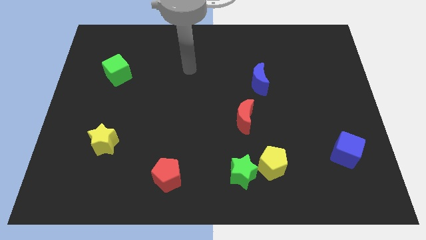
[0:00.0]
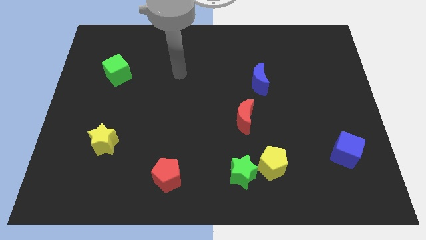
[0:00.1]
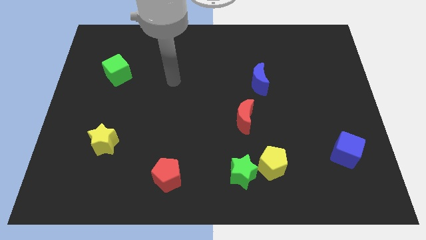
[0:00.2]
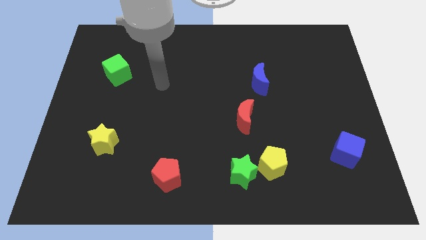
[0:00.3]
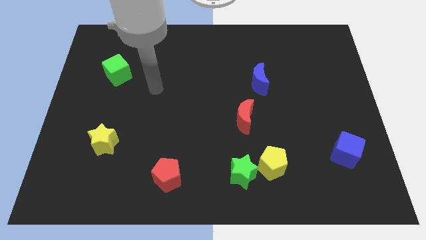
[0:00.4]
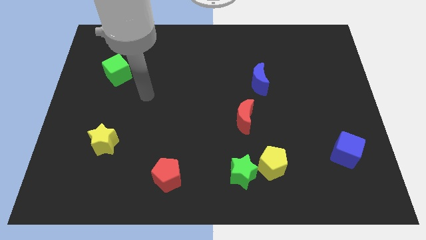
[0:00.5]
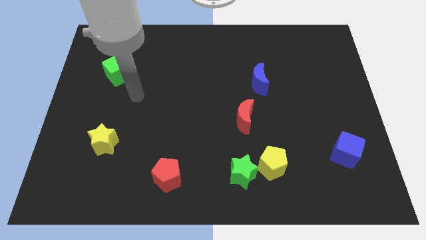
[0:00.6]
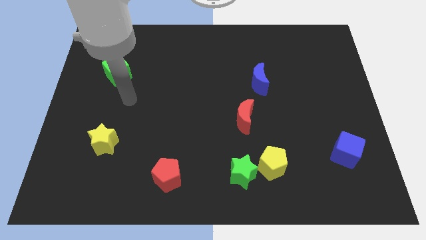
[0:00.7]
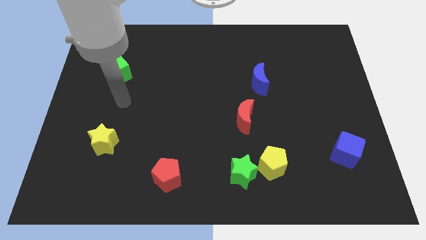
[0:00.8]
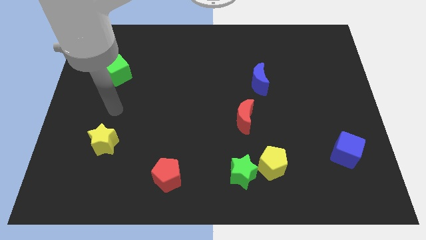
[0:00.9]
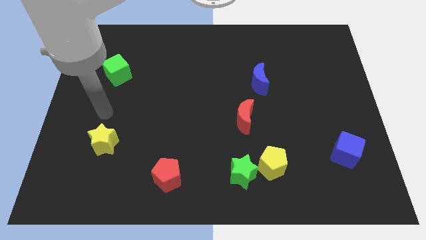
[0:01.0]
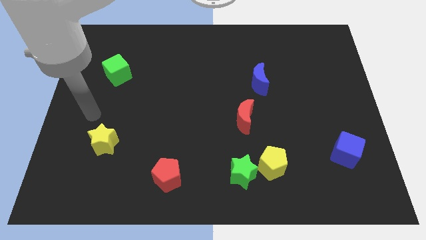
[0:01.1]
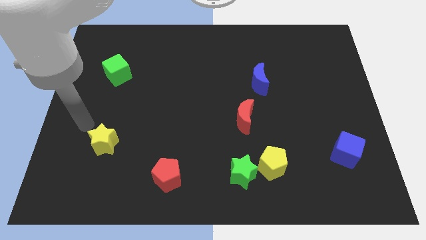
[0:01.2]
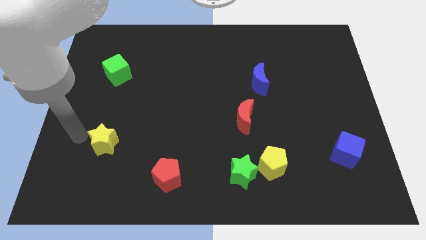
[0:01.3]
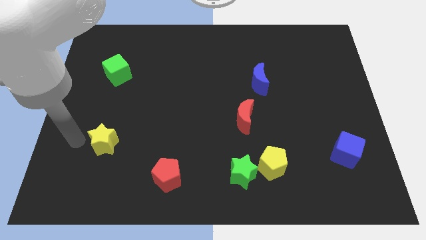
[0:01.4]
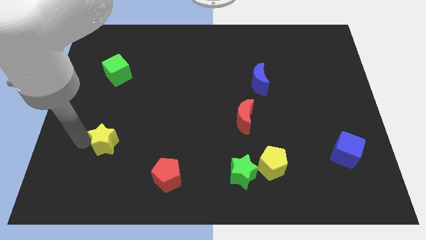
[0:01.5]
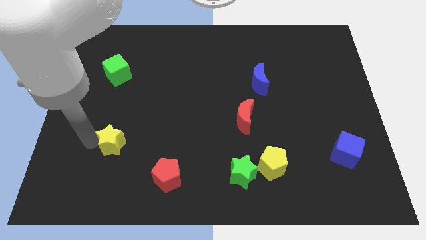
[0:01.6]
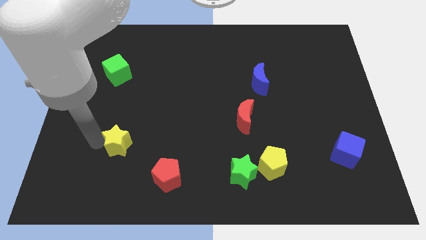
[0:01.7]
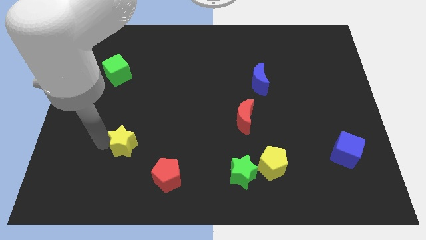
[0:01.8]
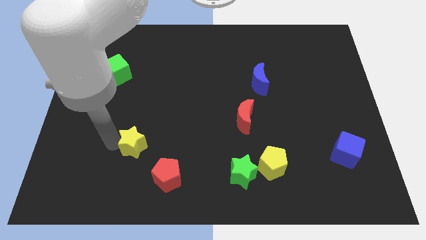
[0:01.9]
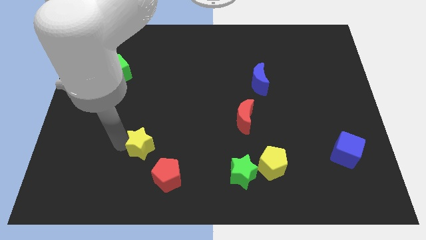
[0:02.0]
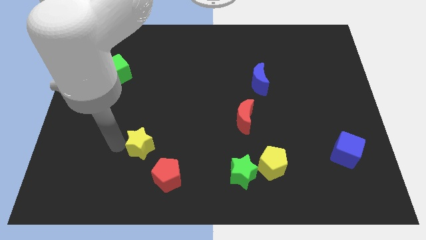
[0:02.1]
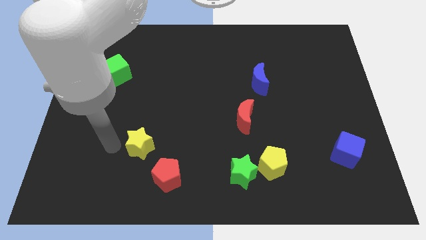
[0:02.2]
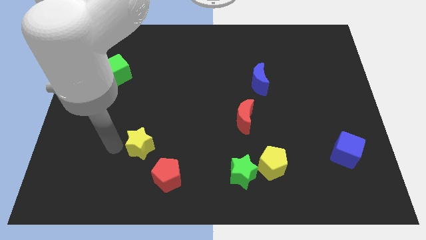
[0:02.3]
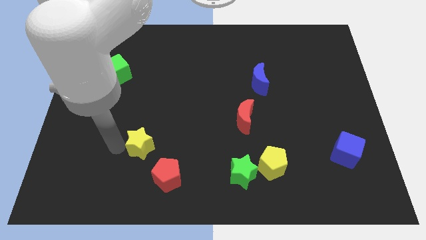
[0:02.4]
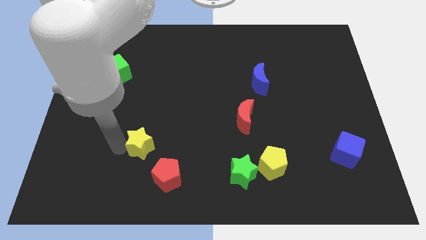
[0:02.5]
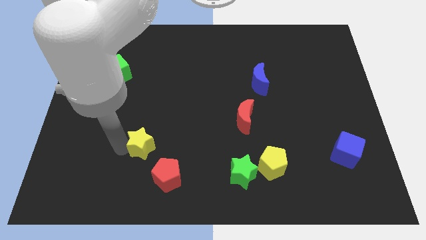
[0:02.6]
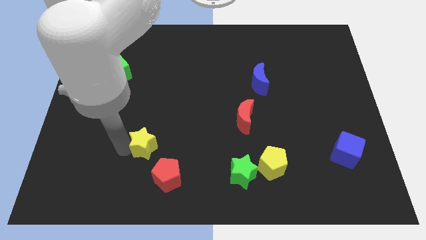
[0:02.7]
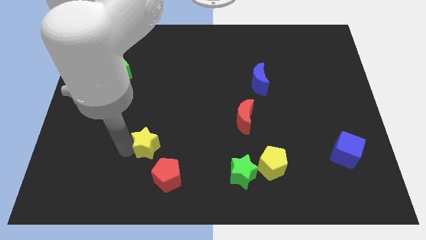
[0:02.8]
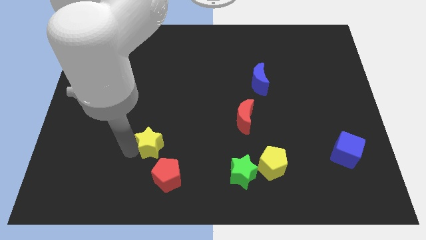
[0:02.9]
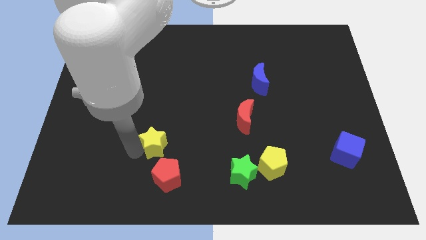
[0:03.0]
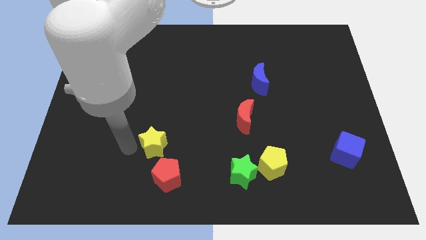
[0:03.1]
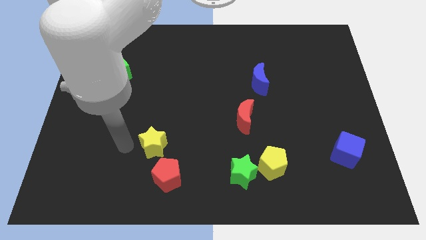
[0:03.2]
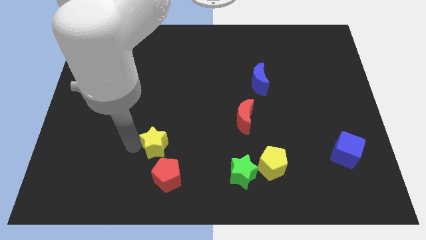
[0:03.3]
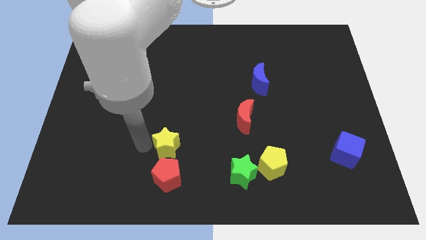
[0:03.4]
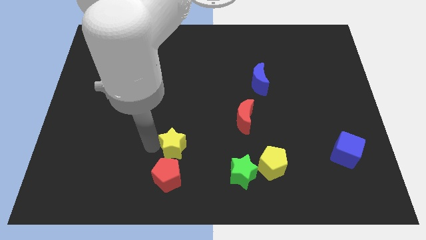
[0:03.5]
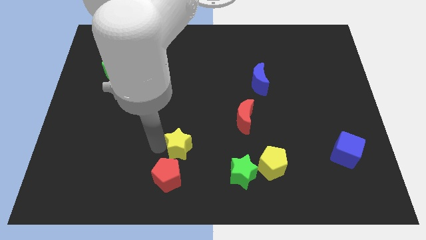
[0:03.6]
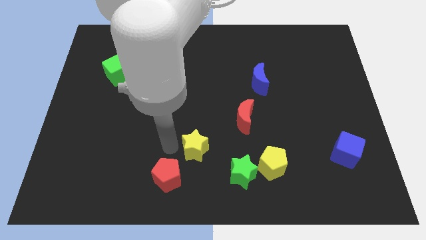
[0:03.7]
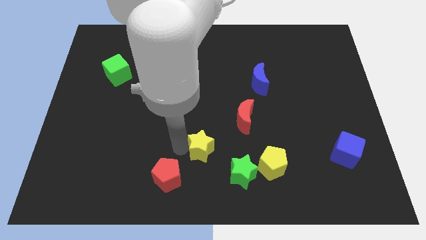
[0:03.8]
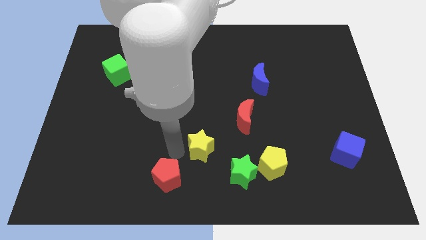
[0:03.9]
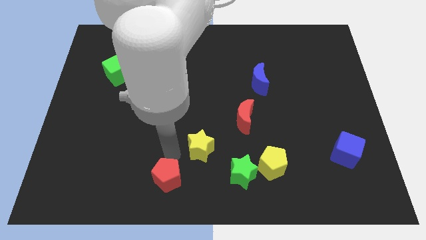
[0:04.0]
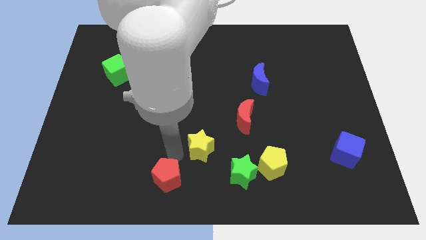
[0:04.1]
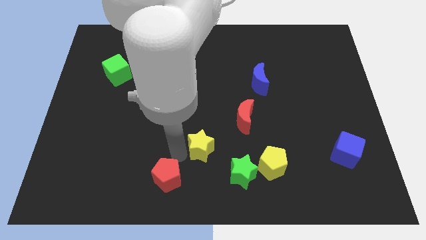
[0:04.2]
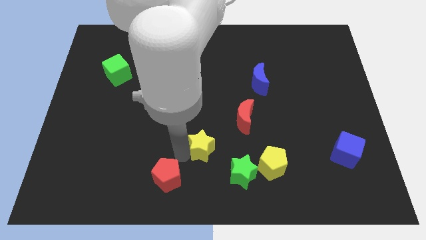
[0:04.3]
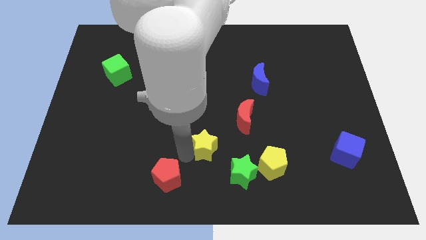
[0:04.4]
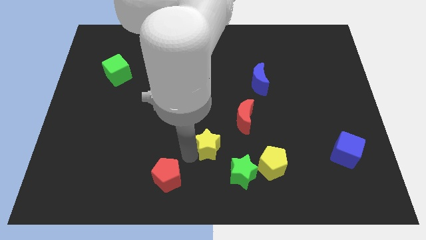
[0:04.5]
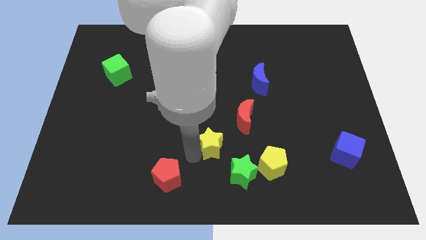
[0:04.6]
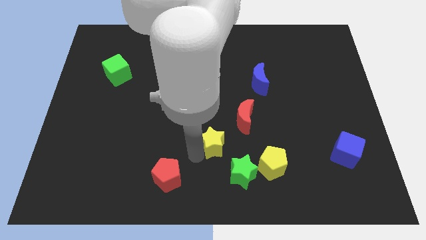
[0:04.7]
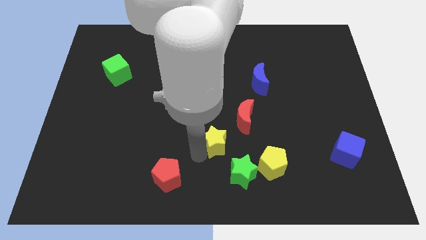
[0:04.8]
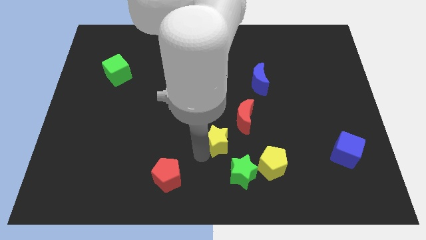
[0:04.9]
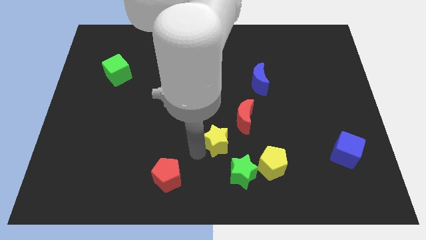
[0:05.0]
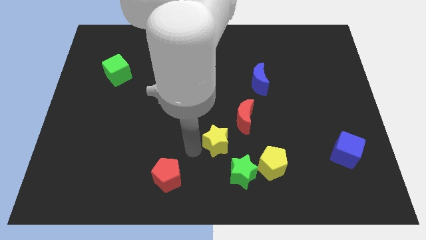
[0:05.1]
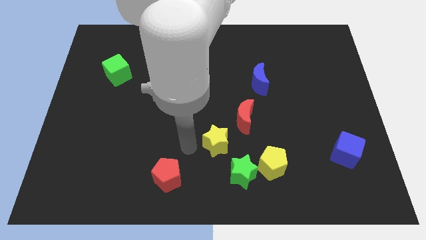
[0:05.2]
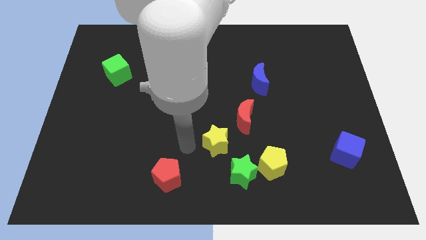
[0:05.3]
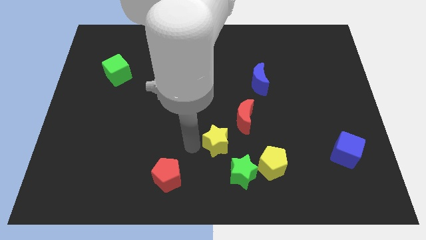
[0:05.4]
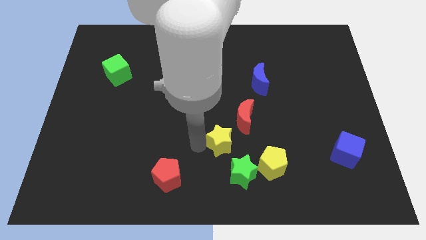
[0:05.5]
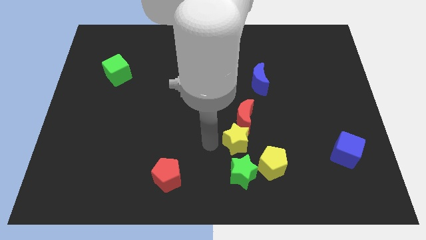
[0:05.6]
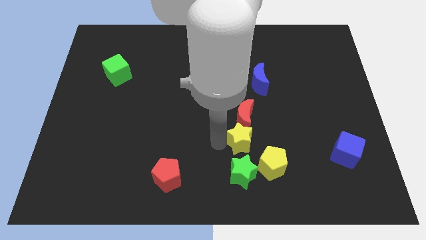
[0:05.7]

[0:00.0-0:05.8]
slide the yellow star to the bottom right side of the red moon

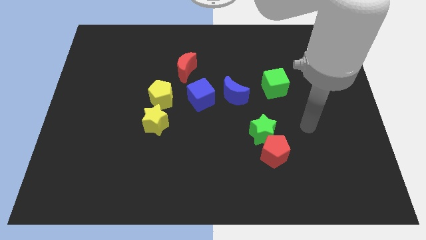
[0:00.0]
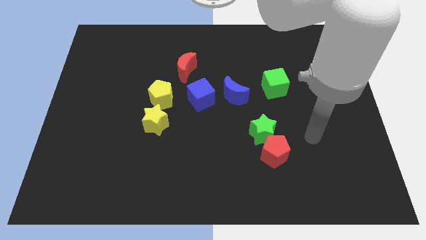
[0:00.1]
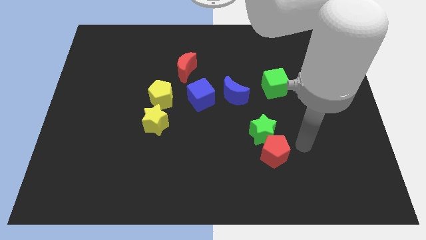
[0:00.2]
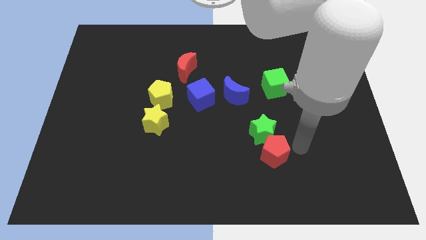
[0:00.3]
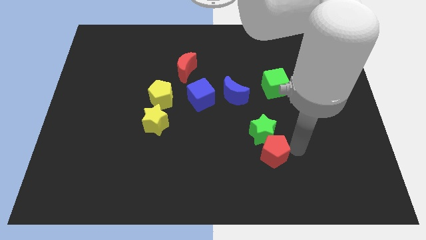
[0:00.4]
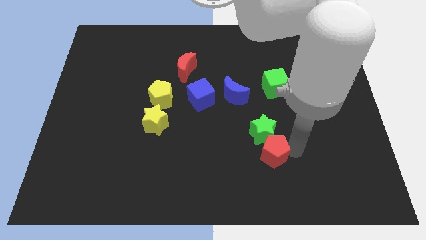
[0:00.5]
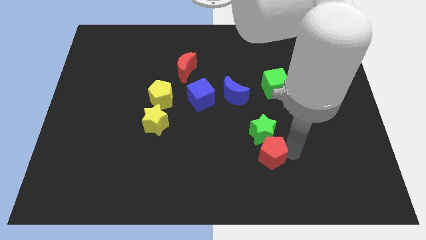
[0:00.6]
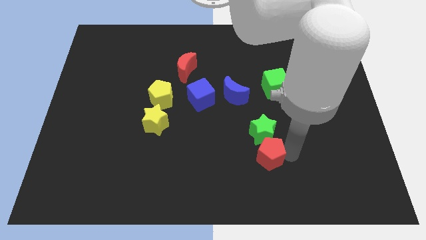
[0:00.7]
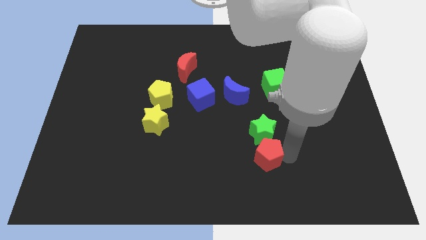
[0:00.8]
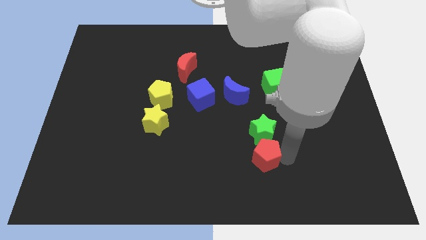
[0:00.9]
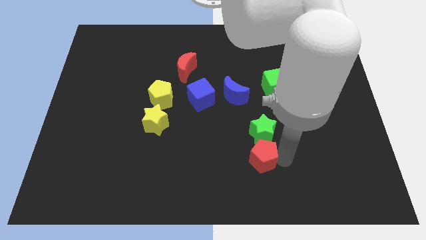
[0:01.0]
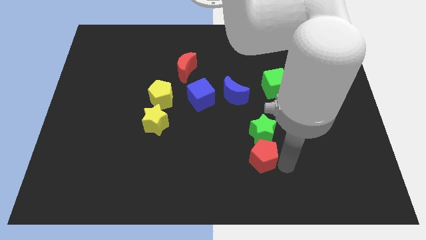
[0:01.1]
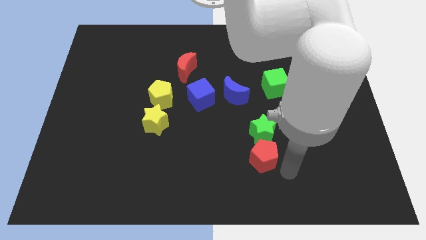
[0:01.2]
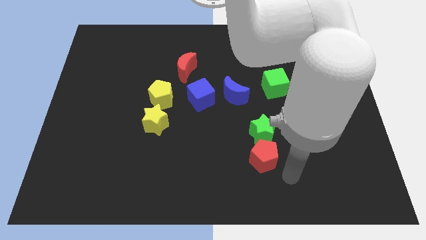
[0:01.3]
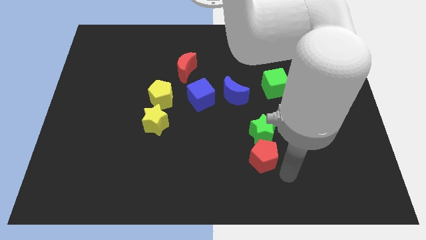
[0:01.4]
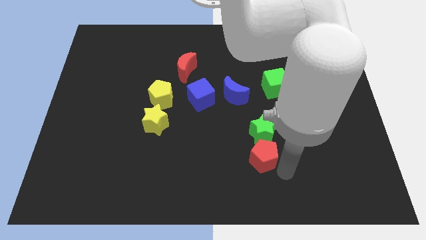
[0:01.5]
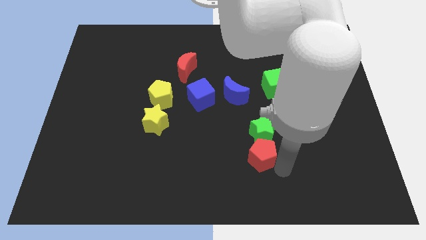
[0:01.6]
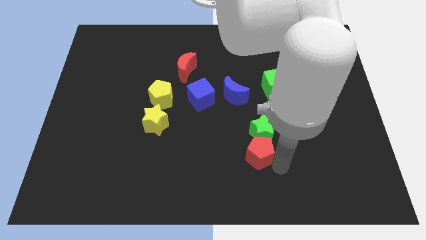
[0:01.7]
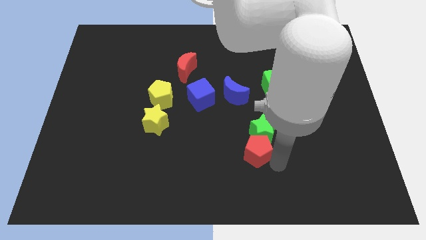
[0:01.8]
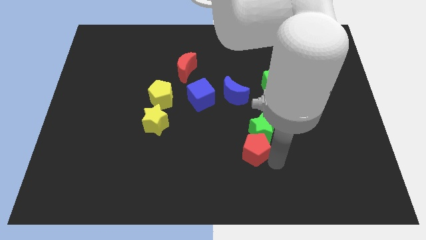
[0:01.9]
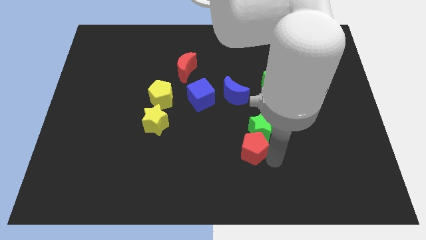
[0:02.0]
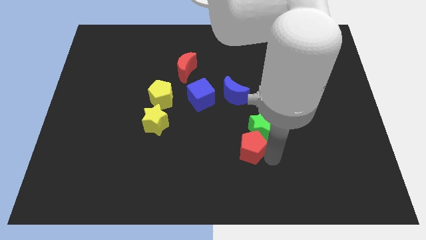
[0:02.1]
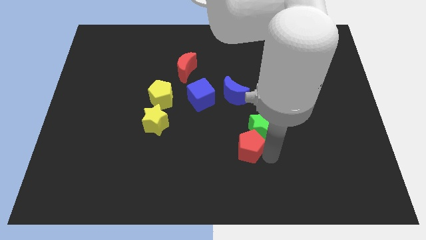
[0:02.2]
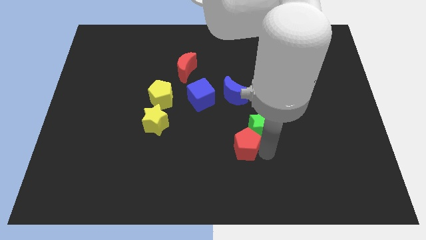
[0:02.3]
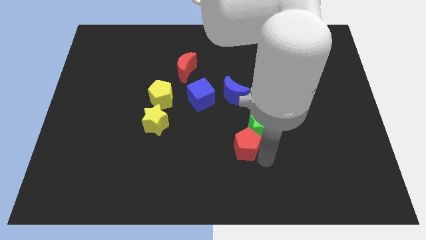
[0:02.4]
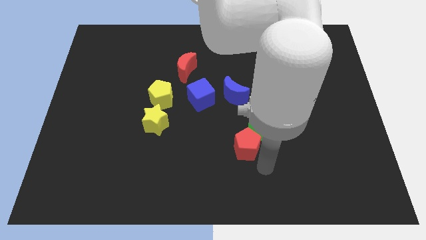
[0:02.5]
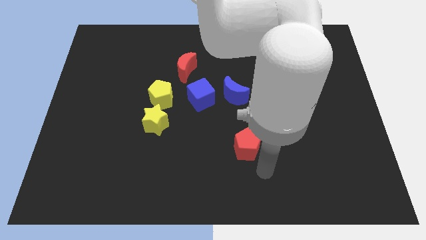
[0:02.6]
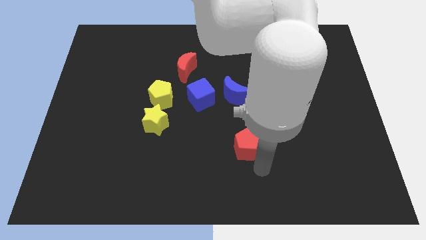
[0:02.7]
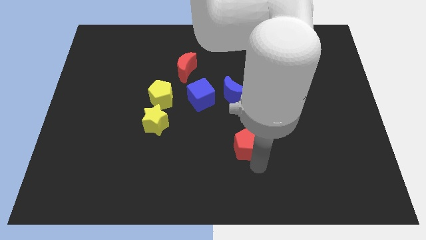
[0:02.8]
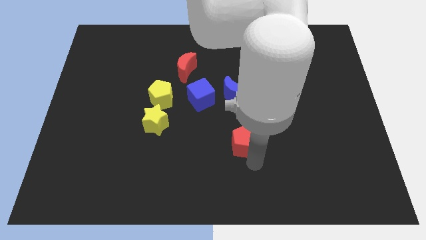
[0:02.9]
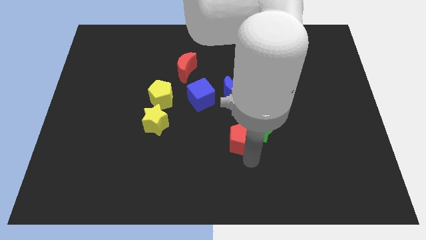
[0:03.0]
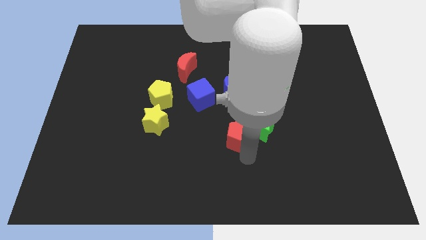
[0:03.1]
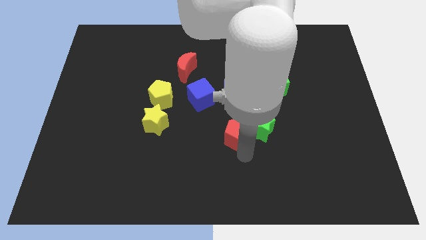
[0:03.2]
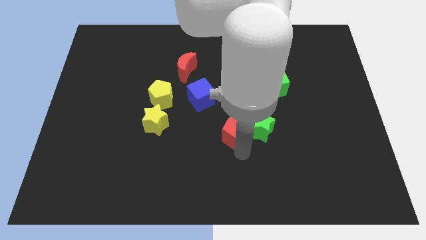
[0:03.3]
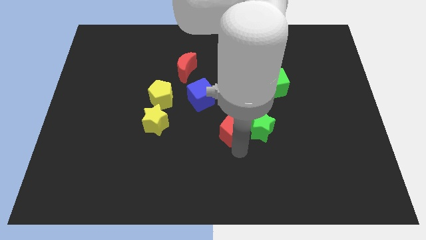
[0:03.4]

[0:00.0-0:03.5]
slide the red pentagon diagonally down and to the right of the blue cube
